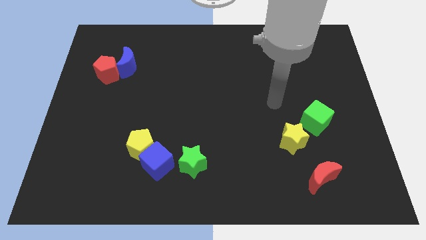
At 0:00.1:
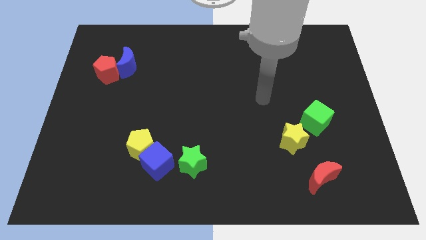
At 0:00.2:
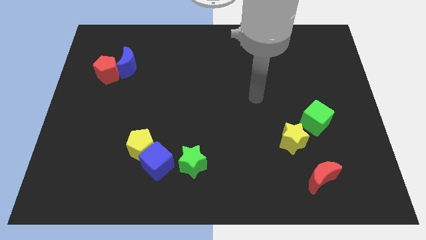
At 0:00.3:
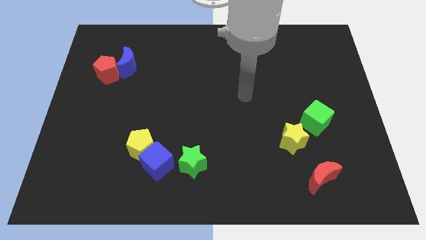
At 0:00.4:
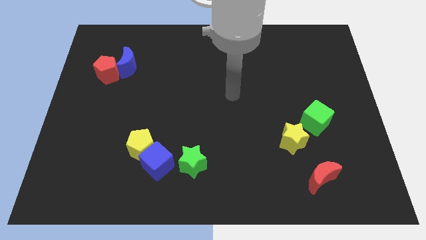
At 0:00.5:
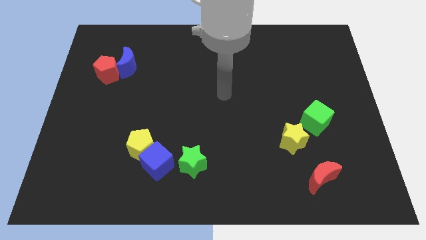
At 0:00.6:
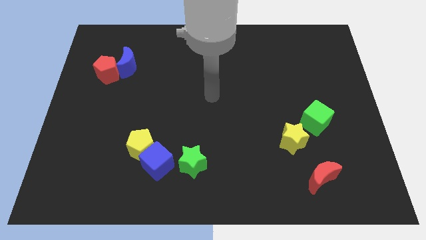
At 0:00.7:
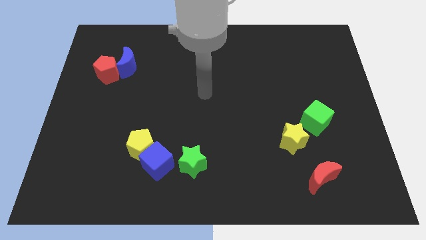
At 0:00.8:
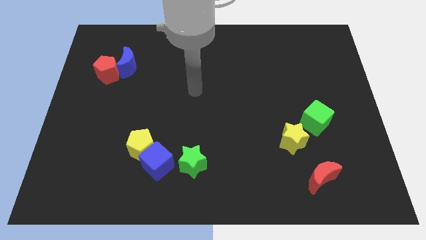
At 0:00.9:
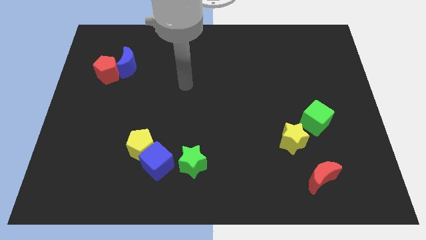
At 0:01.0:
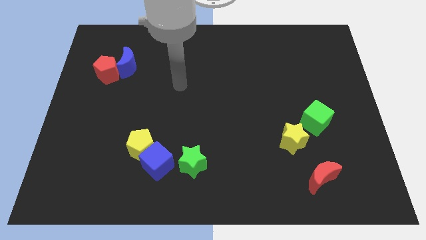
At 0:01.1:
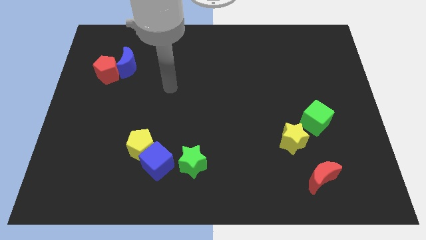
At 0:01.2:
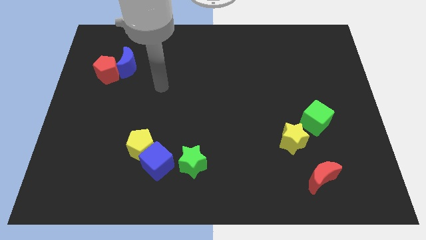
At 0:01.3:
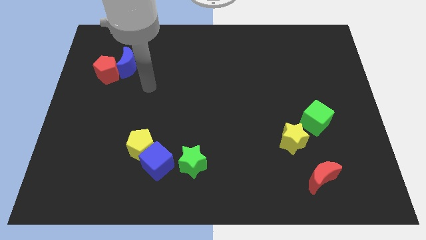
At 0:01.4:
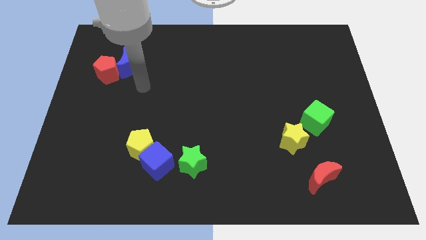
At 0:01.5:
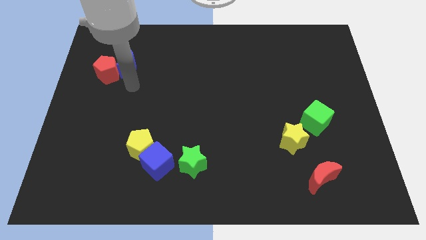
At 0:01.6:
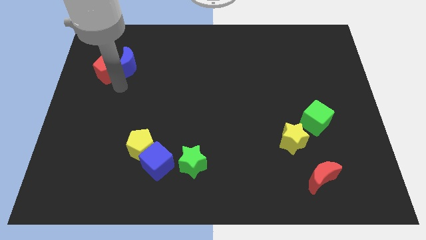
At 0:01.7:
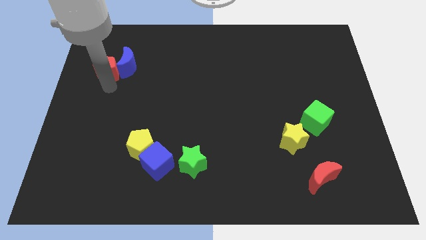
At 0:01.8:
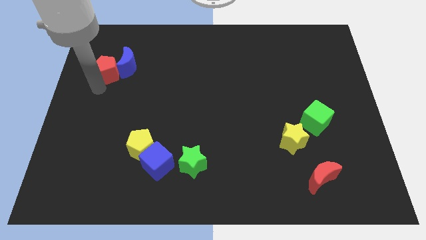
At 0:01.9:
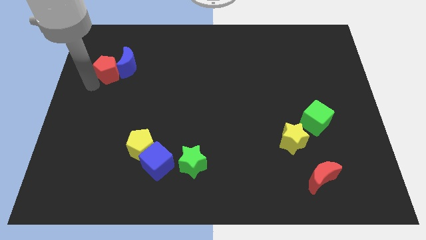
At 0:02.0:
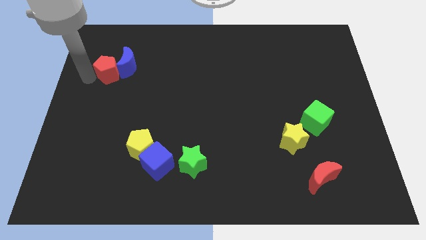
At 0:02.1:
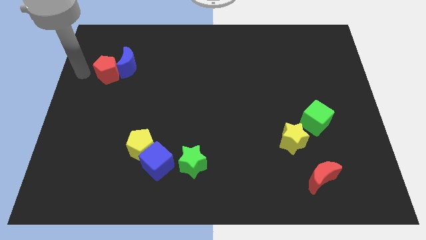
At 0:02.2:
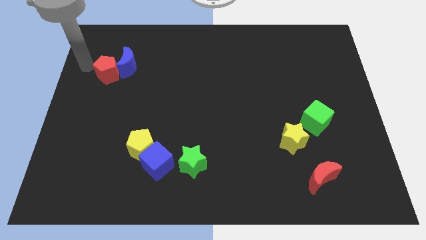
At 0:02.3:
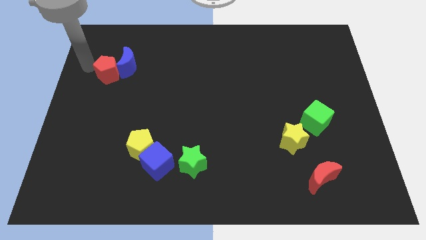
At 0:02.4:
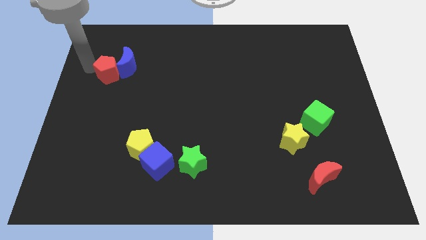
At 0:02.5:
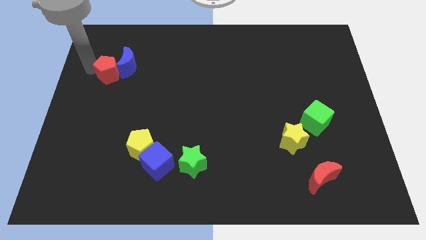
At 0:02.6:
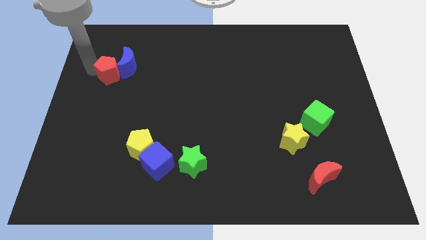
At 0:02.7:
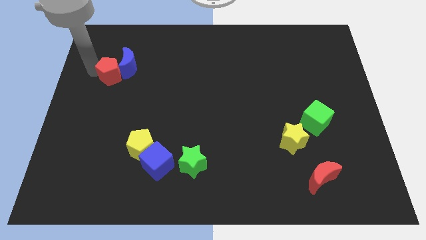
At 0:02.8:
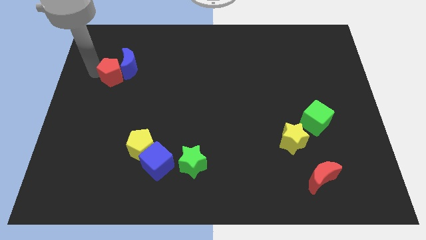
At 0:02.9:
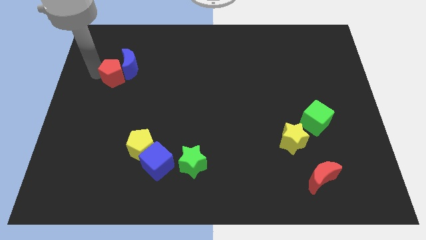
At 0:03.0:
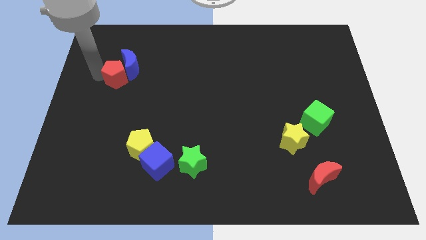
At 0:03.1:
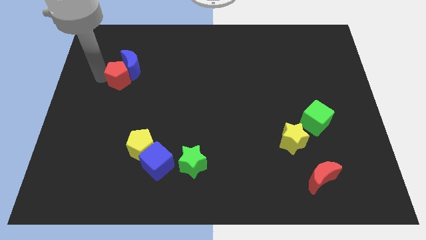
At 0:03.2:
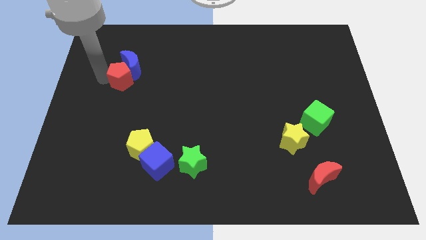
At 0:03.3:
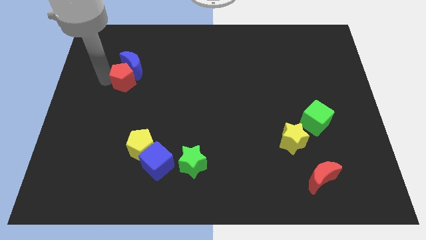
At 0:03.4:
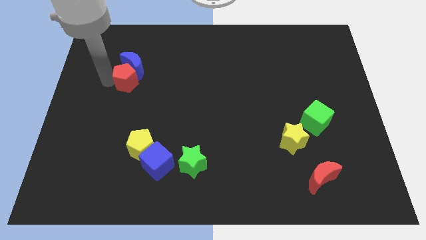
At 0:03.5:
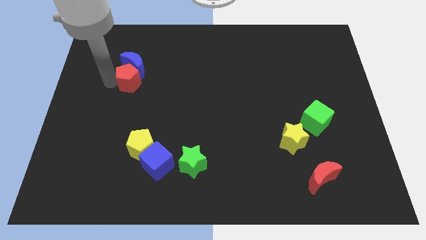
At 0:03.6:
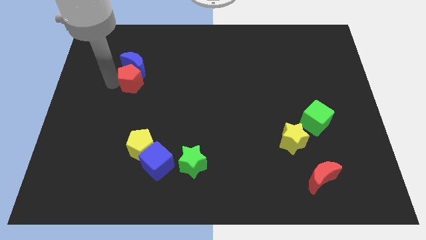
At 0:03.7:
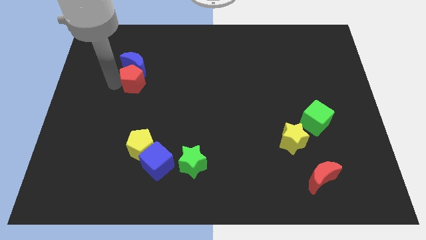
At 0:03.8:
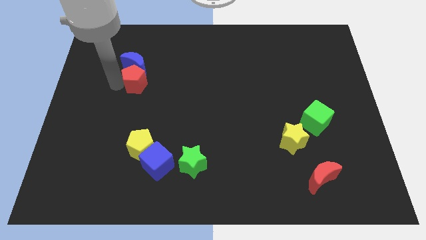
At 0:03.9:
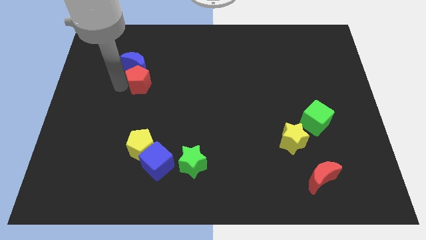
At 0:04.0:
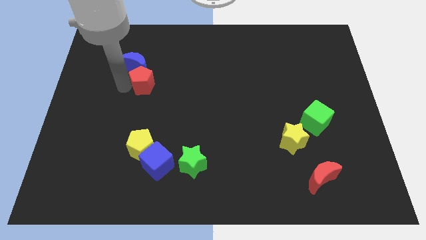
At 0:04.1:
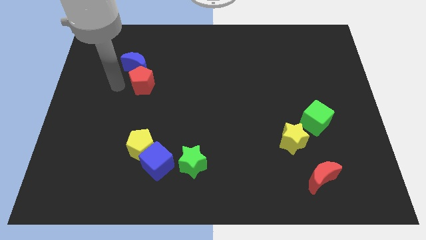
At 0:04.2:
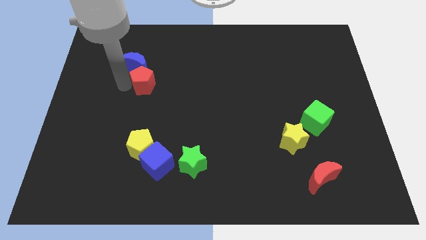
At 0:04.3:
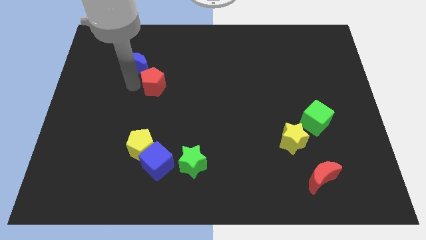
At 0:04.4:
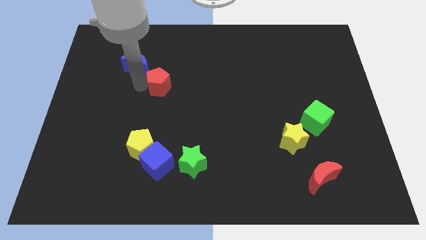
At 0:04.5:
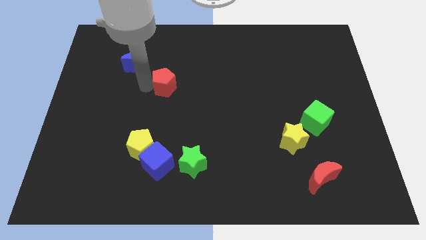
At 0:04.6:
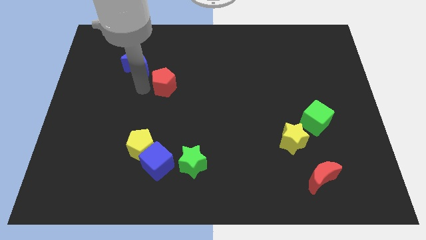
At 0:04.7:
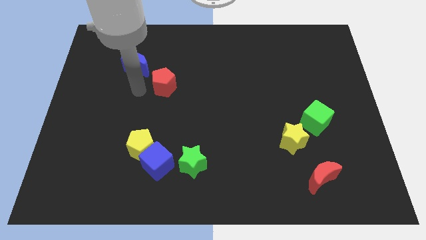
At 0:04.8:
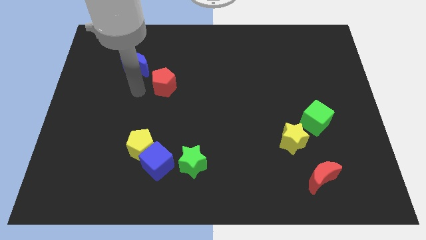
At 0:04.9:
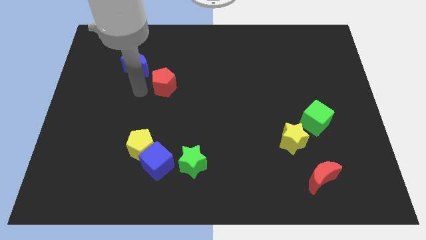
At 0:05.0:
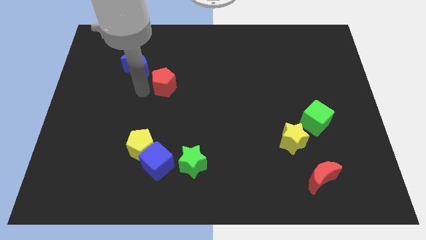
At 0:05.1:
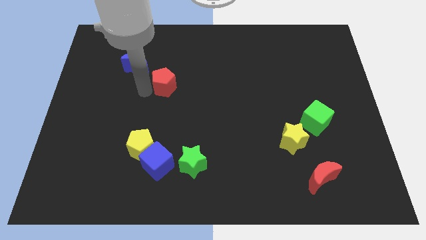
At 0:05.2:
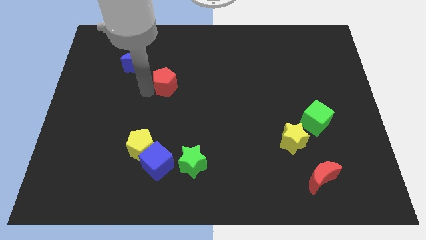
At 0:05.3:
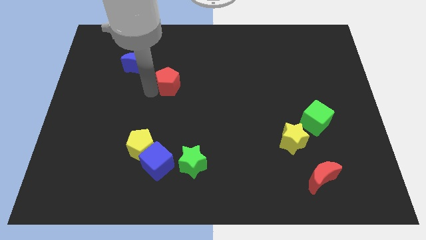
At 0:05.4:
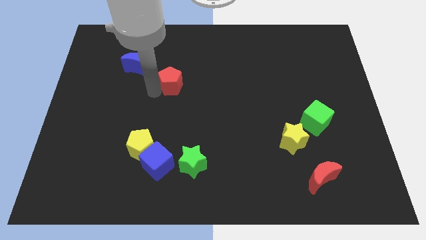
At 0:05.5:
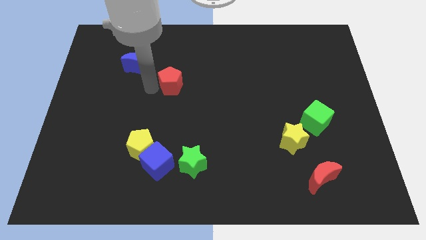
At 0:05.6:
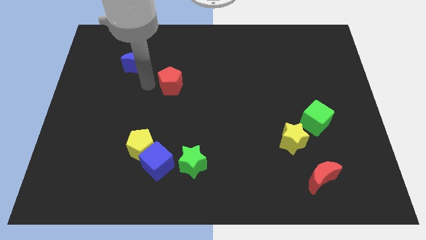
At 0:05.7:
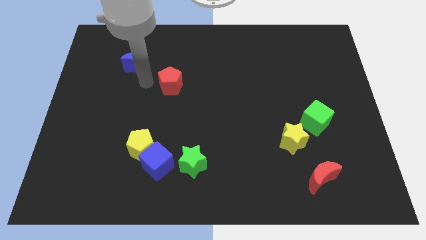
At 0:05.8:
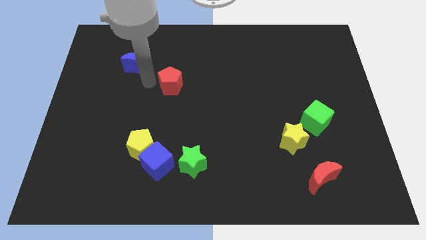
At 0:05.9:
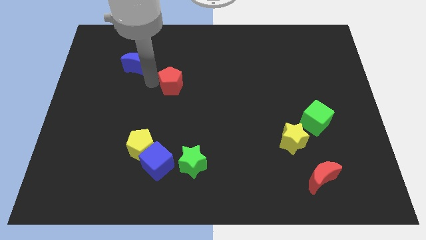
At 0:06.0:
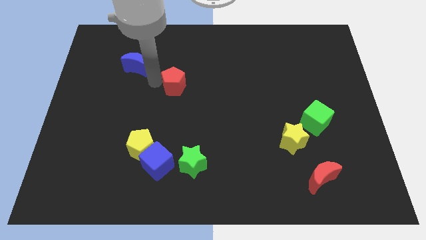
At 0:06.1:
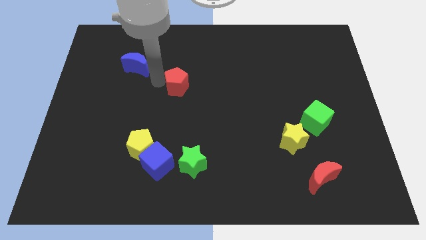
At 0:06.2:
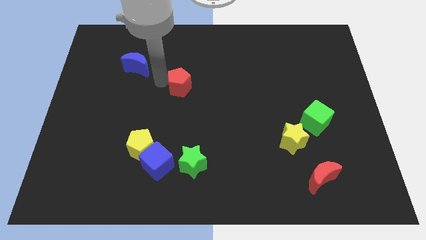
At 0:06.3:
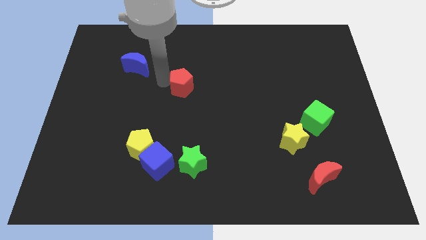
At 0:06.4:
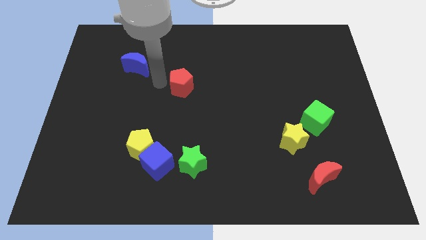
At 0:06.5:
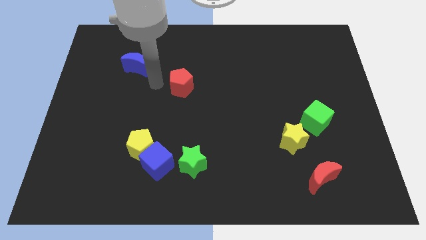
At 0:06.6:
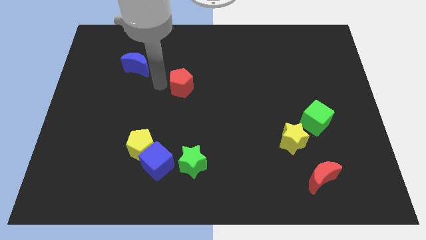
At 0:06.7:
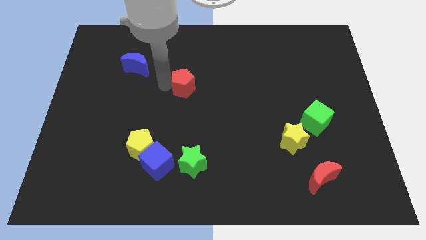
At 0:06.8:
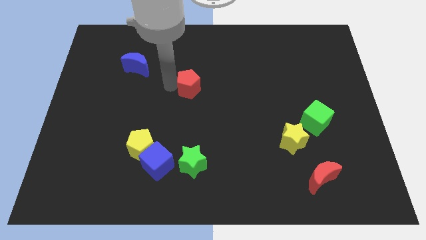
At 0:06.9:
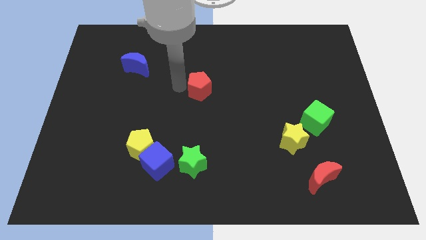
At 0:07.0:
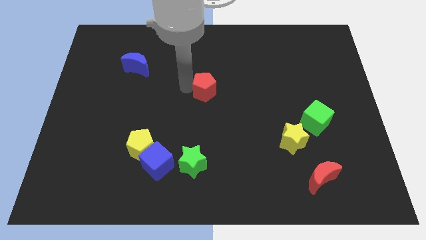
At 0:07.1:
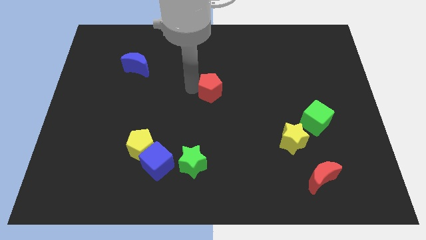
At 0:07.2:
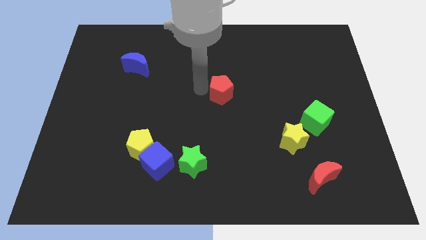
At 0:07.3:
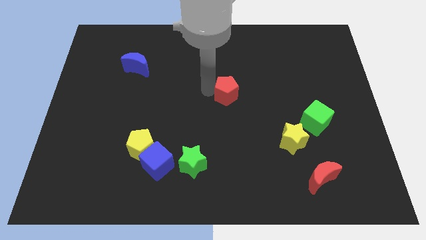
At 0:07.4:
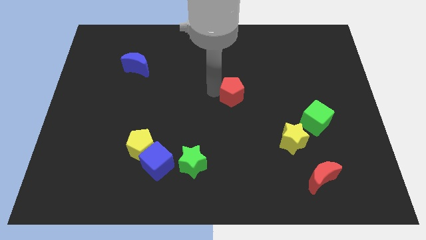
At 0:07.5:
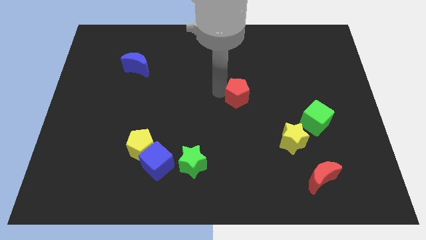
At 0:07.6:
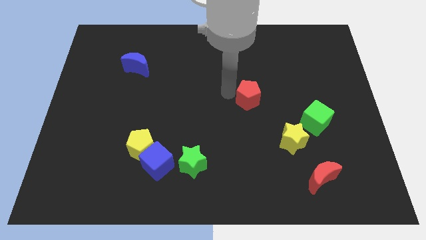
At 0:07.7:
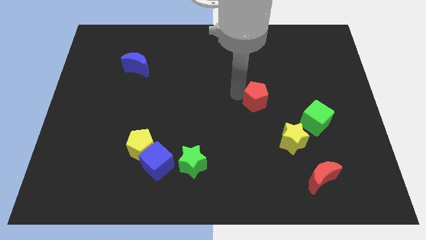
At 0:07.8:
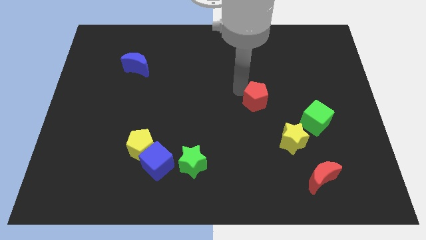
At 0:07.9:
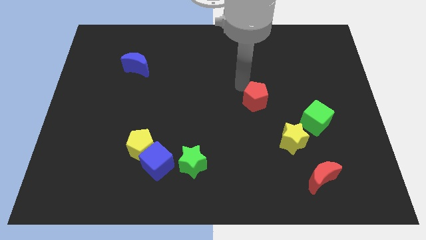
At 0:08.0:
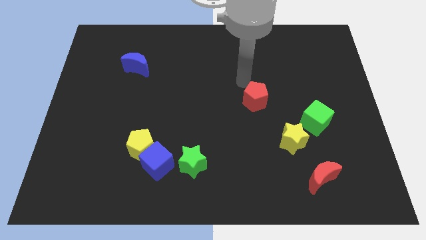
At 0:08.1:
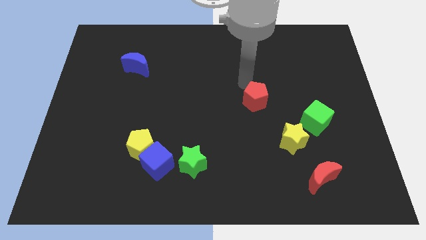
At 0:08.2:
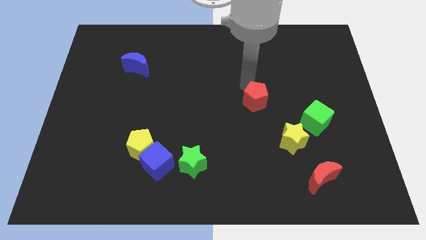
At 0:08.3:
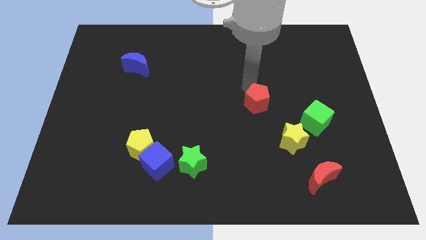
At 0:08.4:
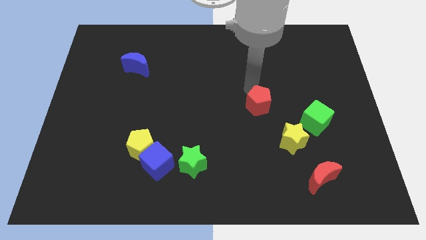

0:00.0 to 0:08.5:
move the red pentagon diagonally up and to the left of the yellow star
